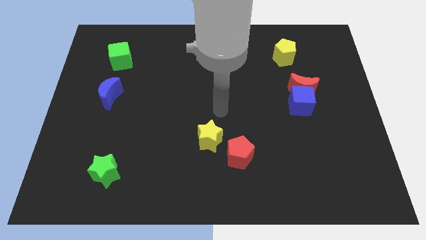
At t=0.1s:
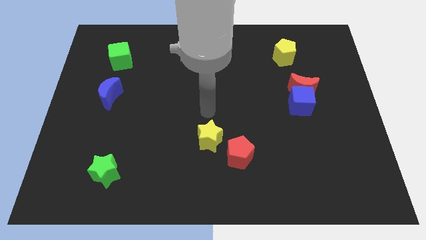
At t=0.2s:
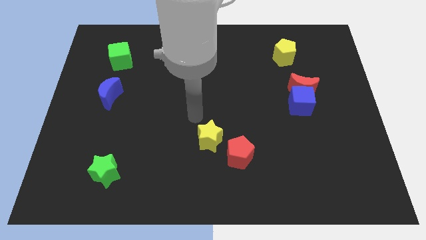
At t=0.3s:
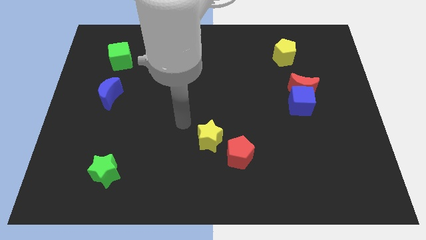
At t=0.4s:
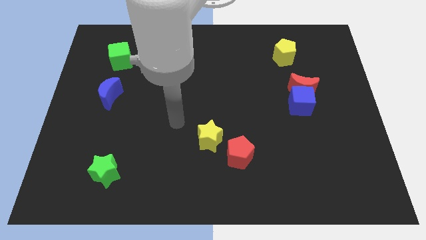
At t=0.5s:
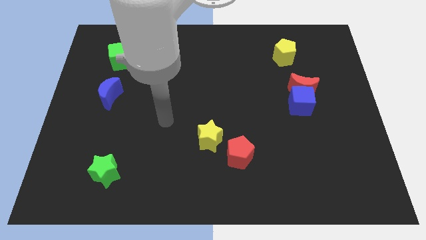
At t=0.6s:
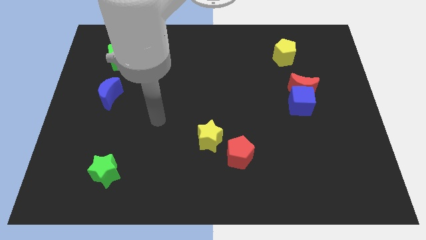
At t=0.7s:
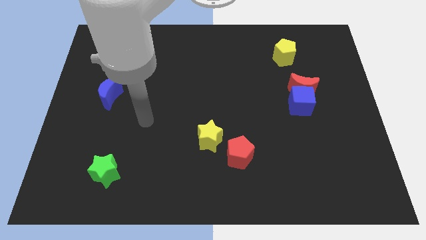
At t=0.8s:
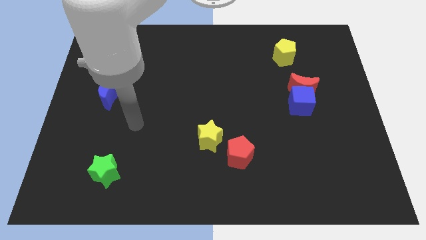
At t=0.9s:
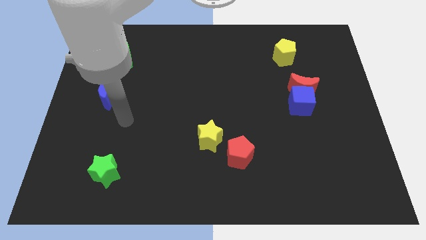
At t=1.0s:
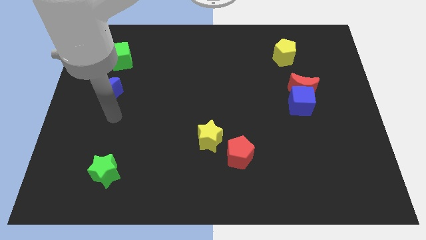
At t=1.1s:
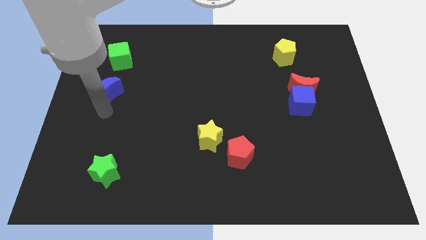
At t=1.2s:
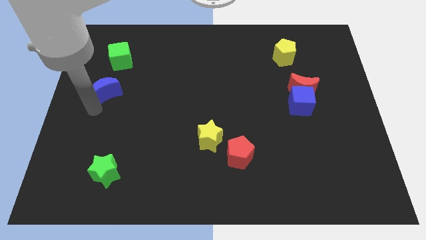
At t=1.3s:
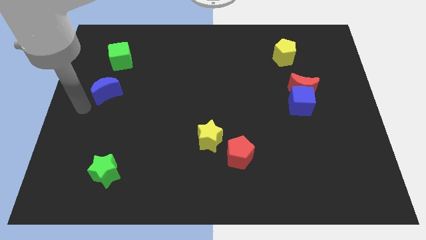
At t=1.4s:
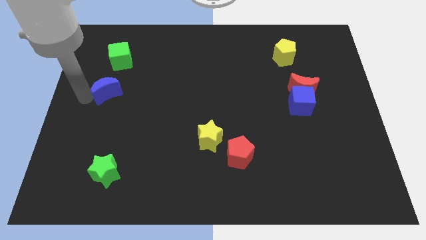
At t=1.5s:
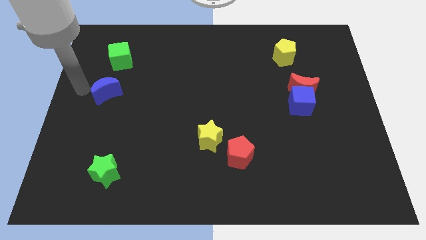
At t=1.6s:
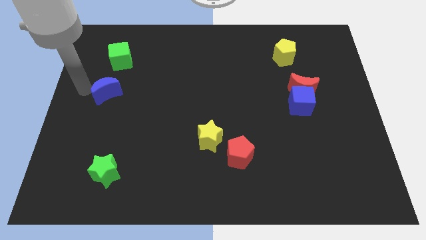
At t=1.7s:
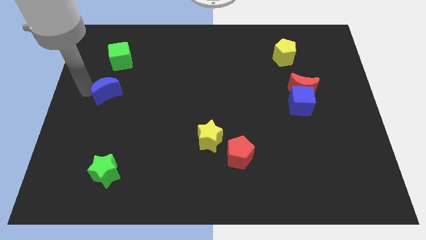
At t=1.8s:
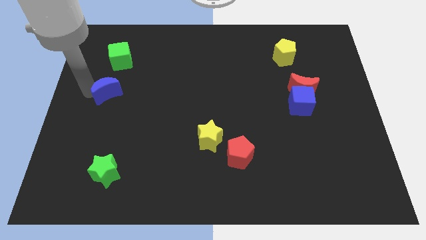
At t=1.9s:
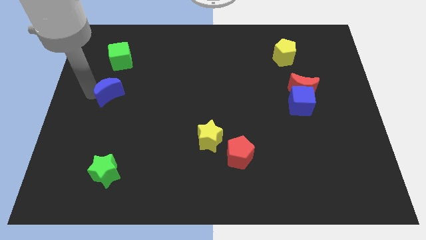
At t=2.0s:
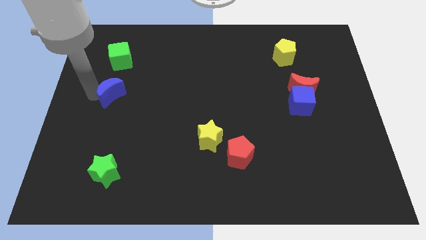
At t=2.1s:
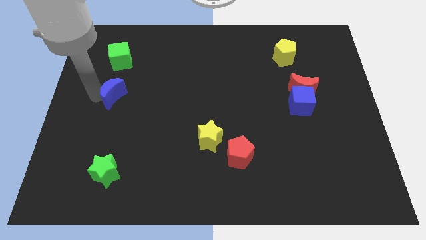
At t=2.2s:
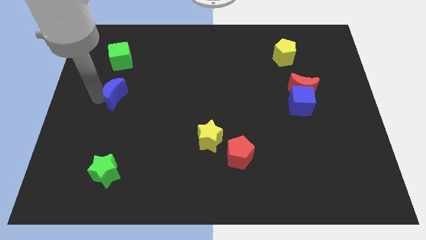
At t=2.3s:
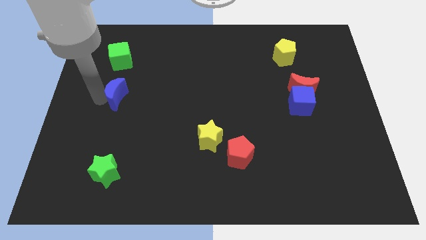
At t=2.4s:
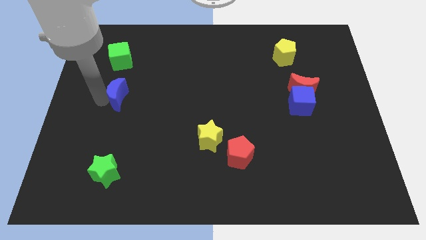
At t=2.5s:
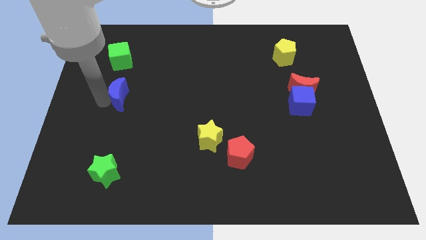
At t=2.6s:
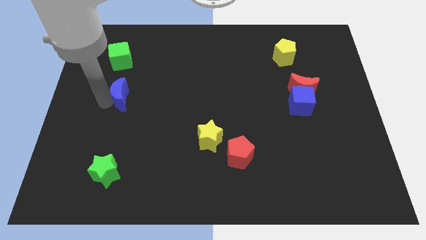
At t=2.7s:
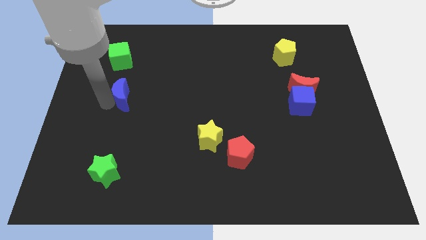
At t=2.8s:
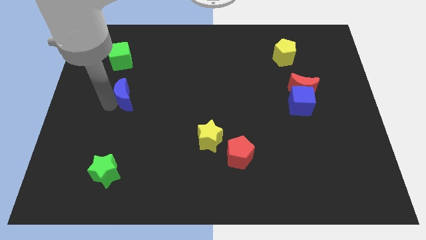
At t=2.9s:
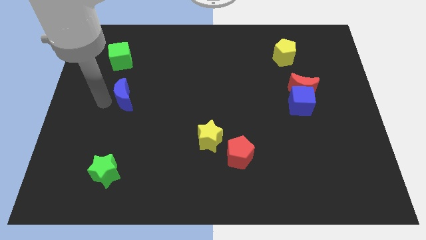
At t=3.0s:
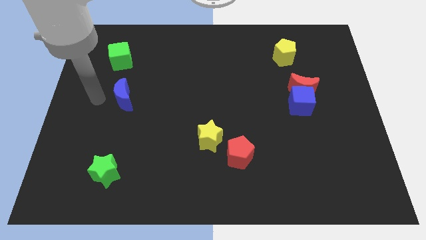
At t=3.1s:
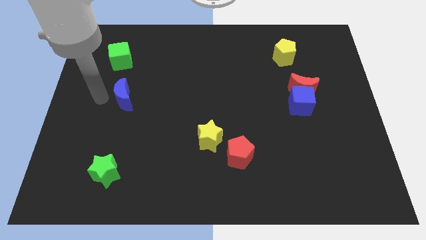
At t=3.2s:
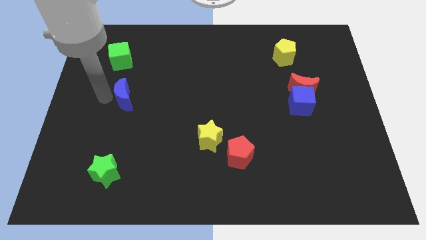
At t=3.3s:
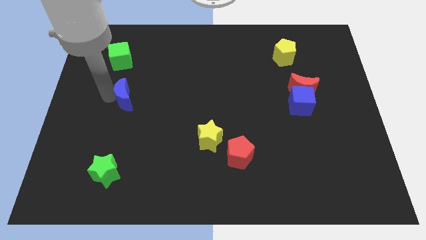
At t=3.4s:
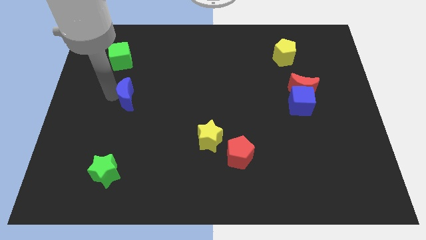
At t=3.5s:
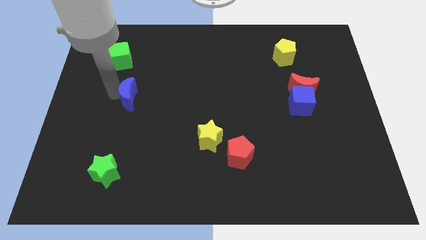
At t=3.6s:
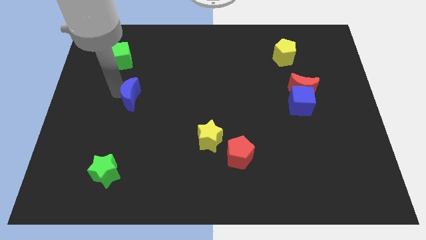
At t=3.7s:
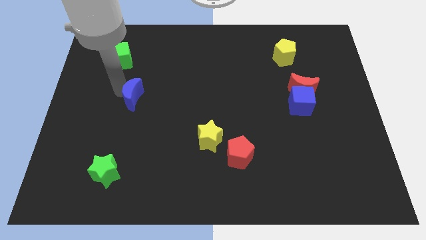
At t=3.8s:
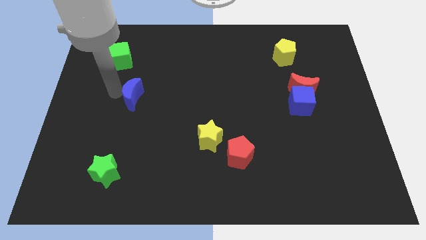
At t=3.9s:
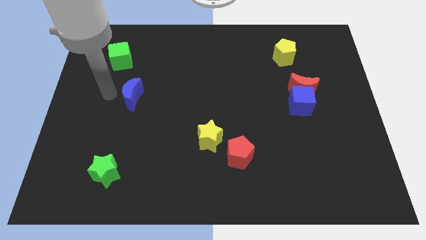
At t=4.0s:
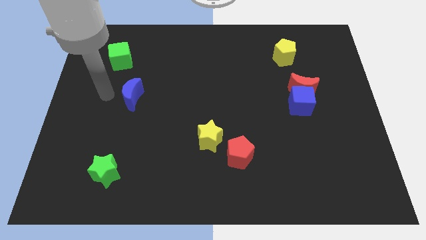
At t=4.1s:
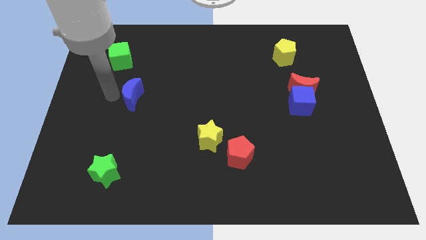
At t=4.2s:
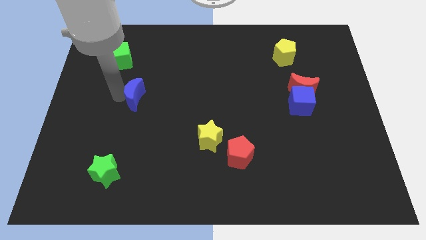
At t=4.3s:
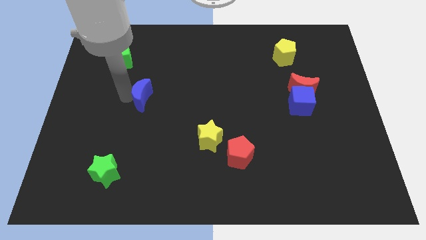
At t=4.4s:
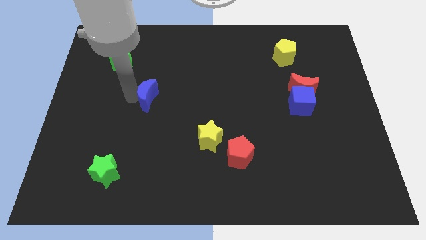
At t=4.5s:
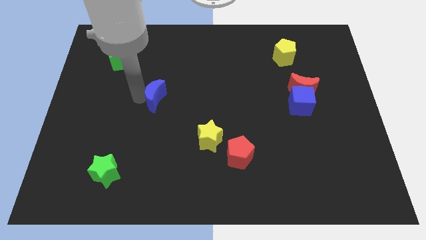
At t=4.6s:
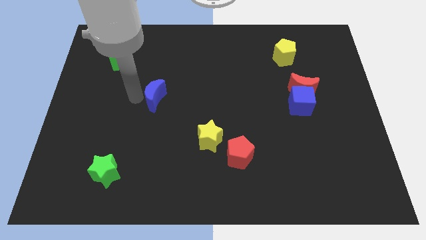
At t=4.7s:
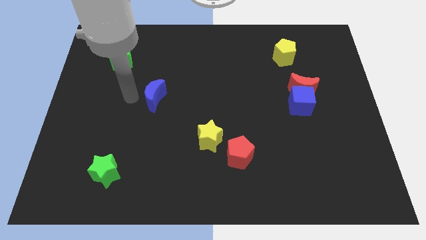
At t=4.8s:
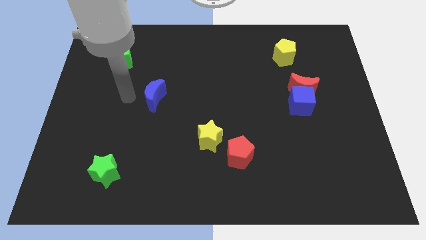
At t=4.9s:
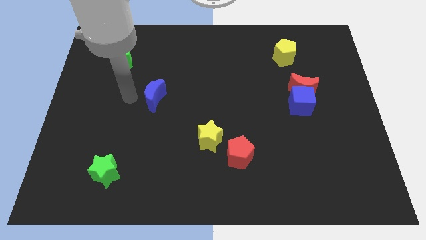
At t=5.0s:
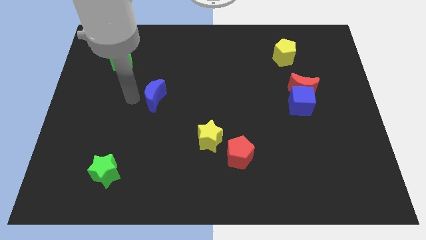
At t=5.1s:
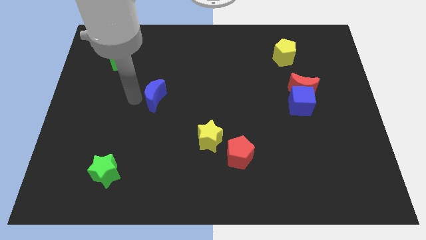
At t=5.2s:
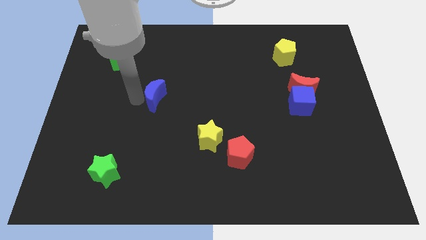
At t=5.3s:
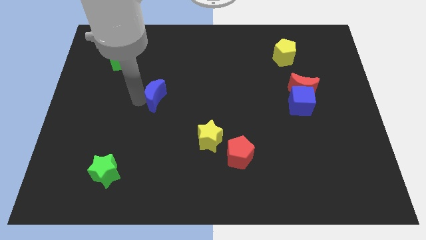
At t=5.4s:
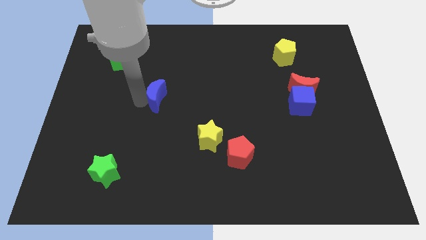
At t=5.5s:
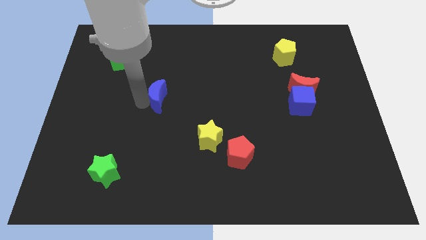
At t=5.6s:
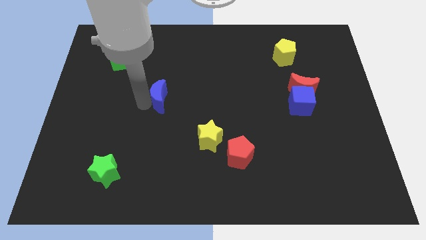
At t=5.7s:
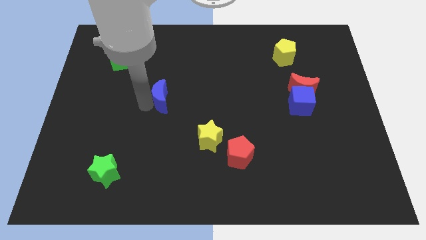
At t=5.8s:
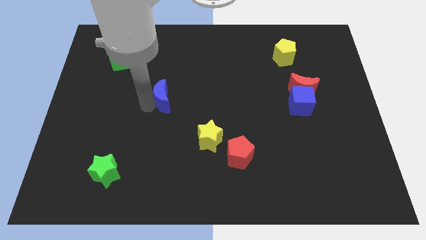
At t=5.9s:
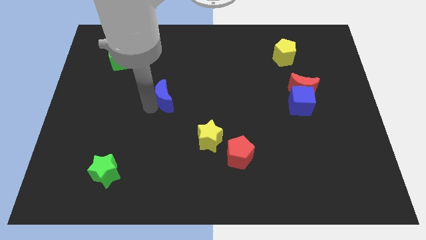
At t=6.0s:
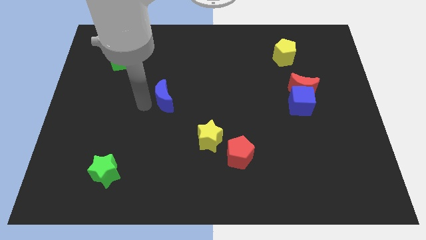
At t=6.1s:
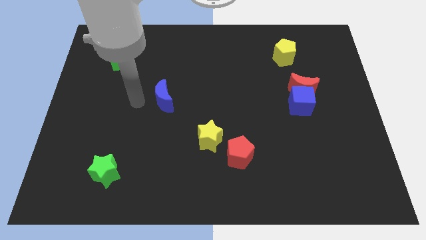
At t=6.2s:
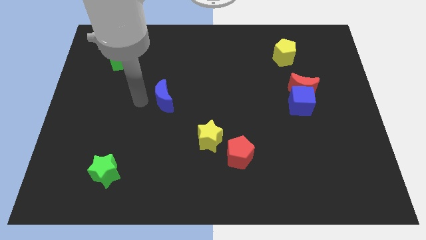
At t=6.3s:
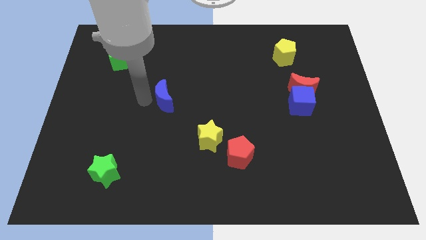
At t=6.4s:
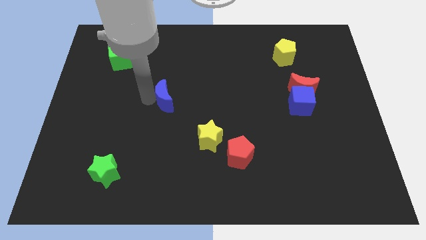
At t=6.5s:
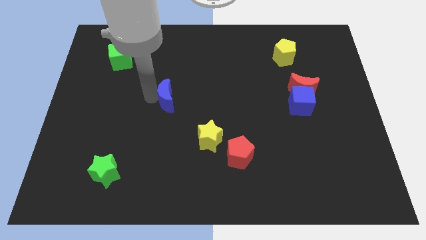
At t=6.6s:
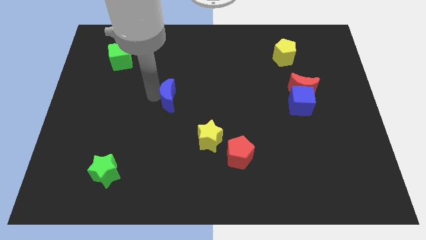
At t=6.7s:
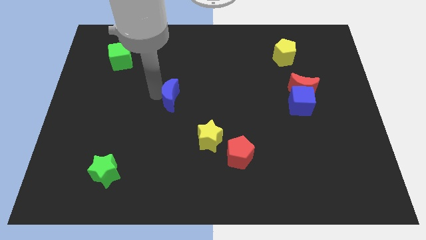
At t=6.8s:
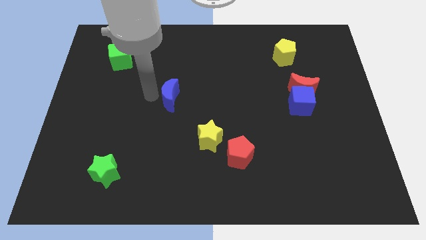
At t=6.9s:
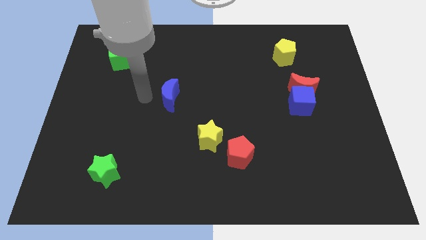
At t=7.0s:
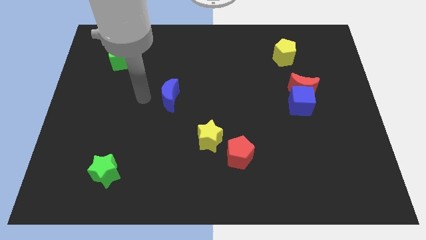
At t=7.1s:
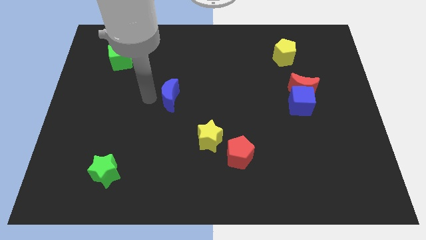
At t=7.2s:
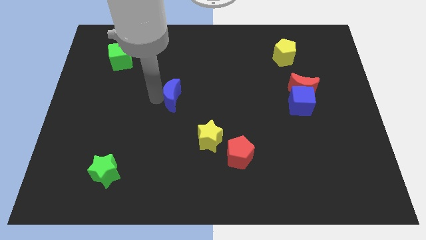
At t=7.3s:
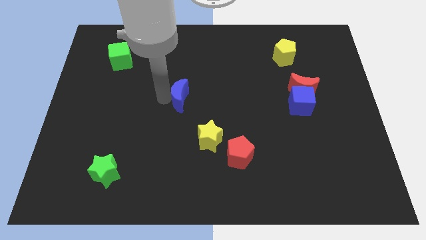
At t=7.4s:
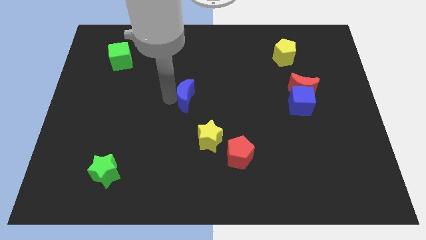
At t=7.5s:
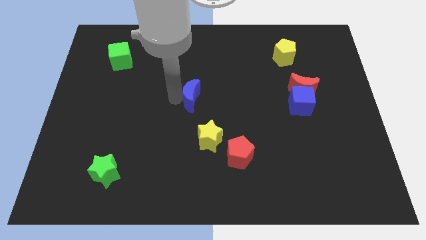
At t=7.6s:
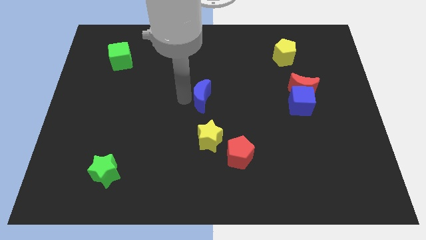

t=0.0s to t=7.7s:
push the blue moon to the right
